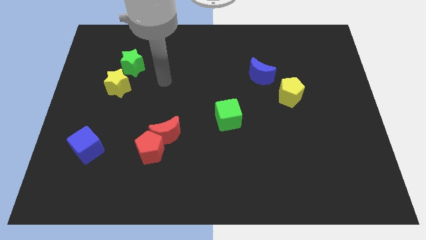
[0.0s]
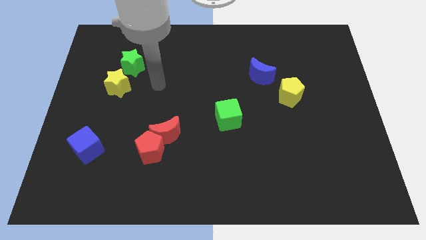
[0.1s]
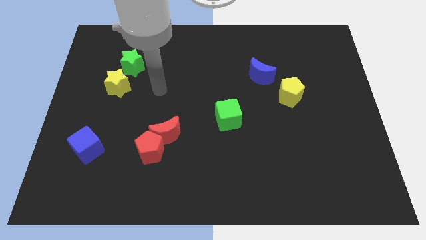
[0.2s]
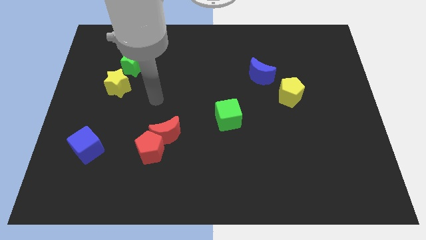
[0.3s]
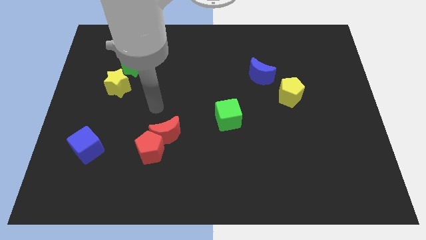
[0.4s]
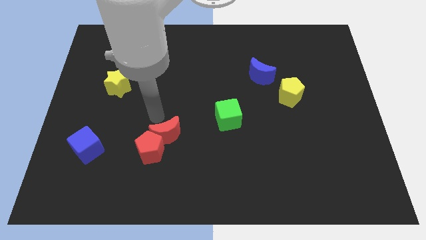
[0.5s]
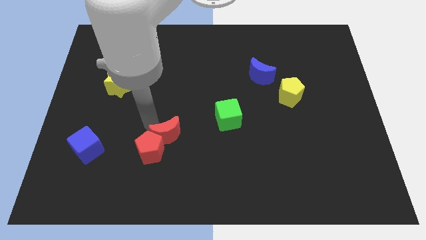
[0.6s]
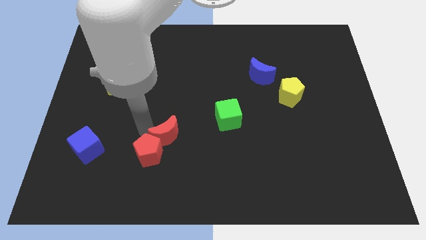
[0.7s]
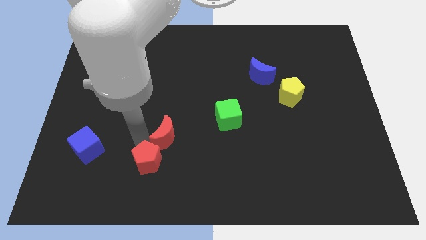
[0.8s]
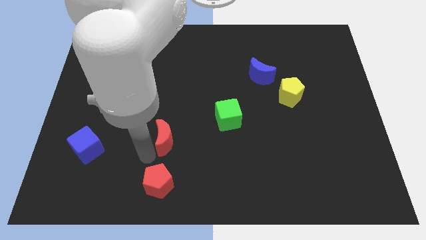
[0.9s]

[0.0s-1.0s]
move the red moon away from the red pentagon

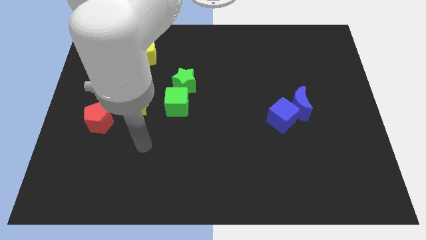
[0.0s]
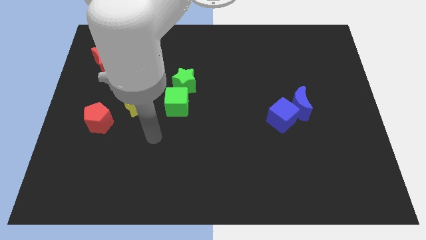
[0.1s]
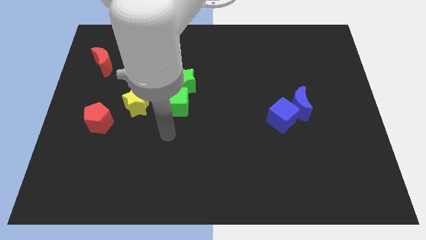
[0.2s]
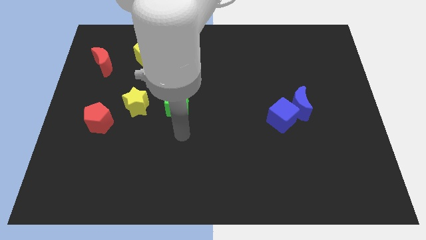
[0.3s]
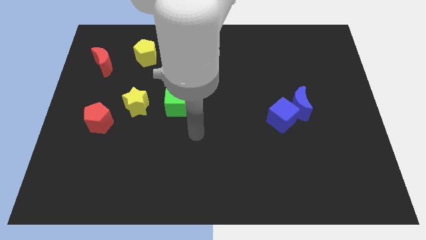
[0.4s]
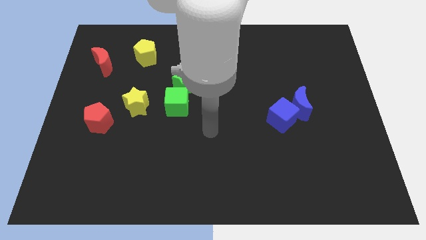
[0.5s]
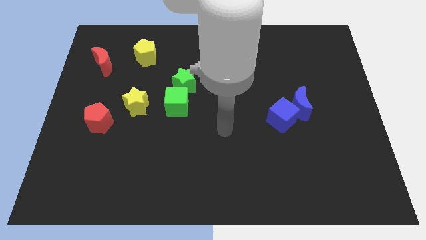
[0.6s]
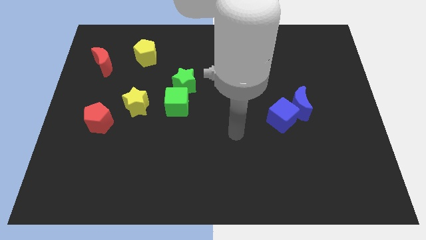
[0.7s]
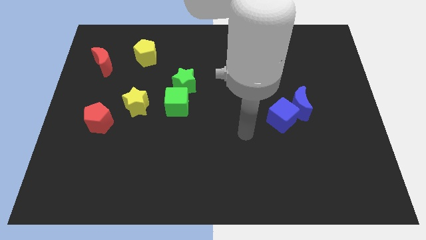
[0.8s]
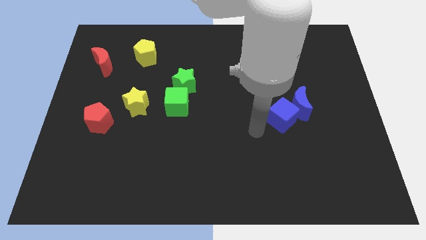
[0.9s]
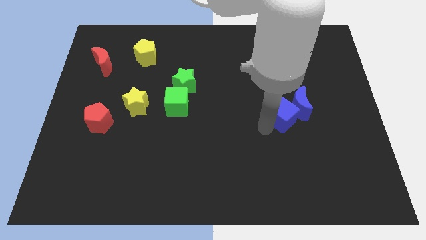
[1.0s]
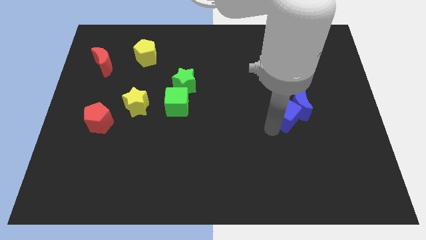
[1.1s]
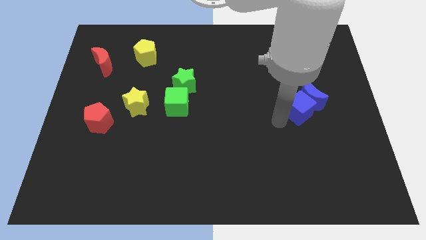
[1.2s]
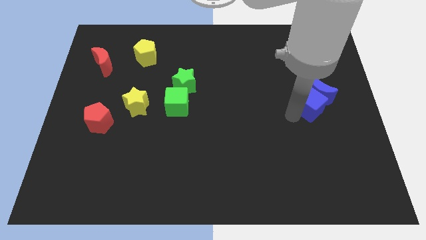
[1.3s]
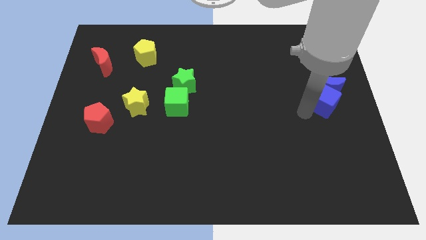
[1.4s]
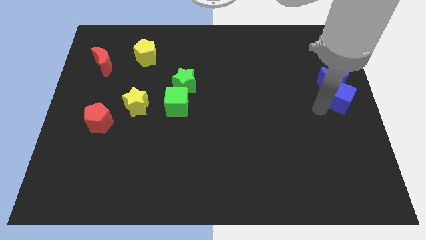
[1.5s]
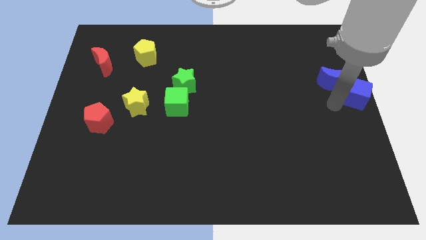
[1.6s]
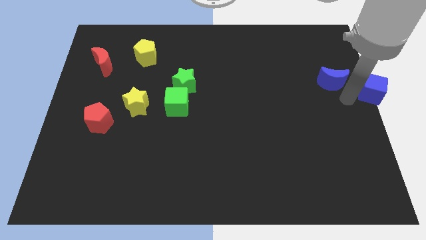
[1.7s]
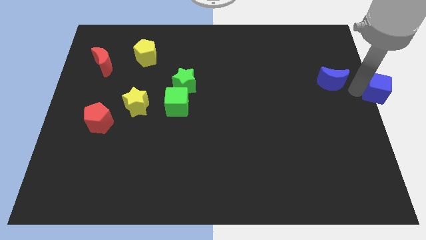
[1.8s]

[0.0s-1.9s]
pull the blue moon apart from the blue cube

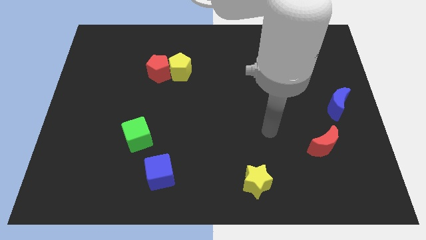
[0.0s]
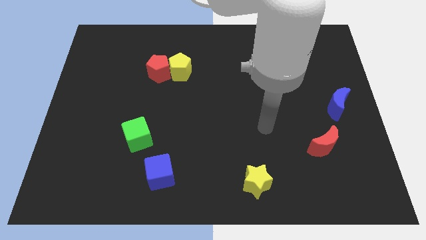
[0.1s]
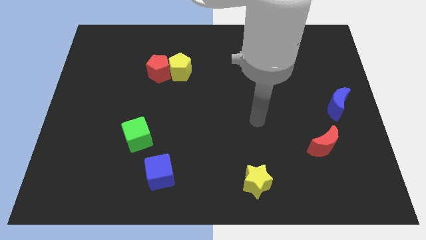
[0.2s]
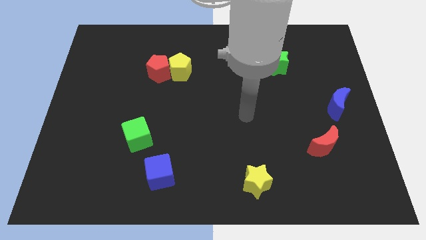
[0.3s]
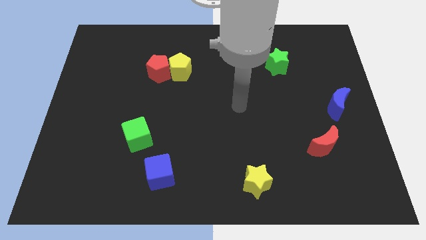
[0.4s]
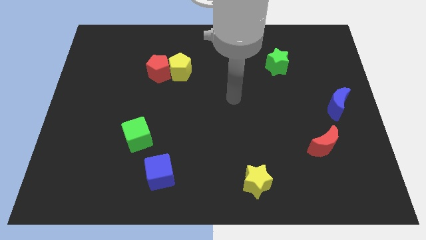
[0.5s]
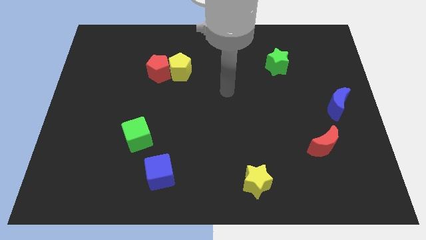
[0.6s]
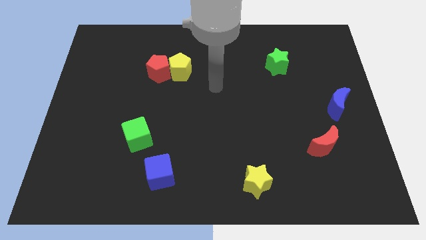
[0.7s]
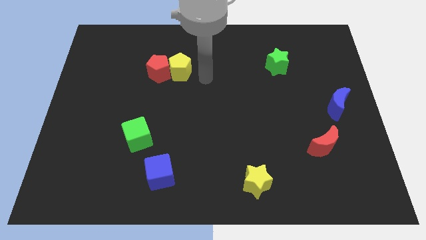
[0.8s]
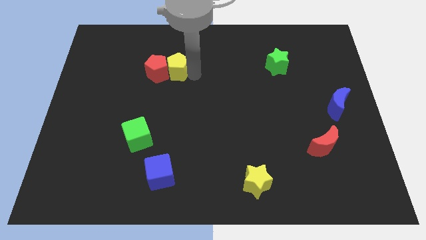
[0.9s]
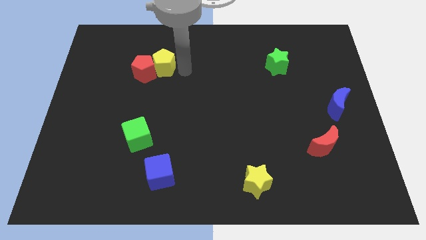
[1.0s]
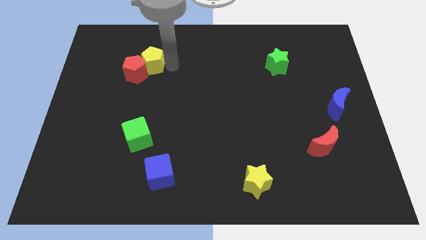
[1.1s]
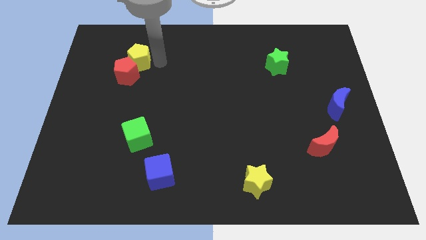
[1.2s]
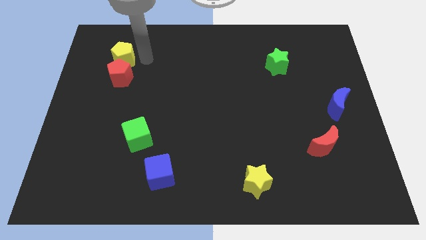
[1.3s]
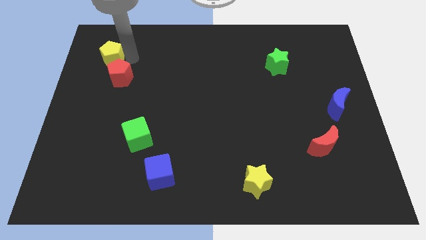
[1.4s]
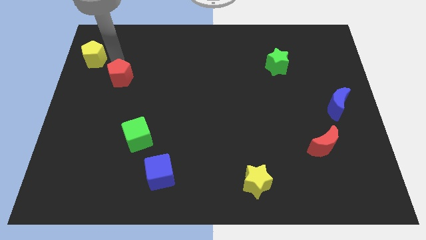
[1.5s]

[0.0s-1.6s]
pull the red pentagon apart from the yellow pentagon

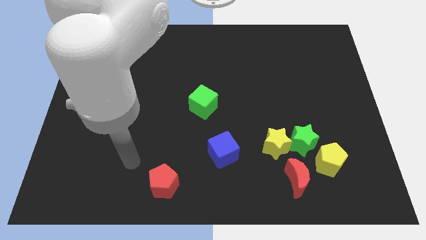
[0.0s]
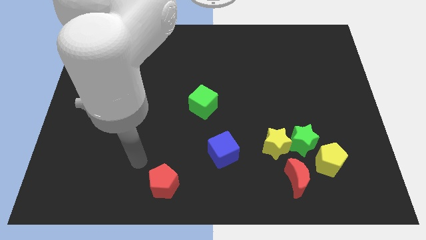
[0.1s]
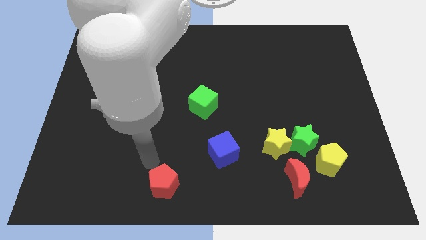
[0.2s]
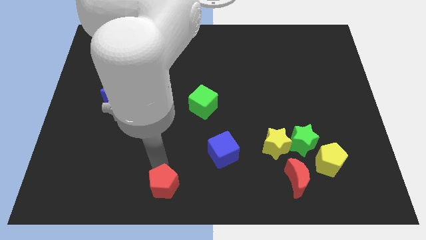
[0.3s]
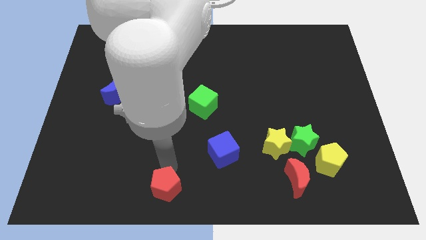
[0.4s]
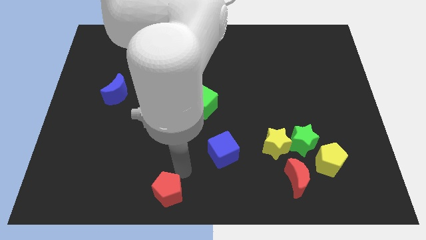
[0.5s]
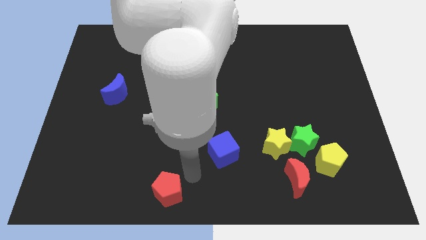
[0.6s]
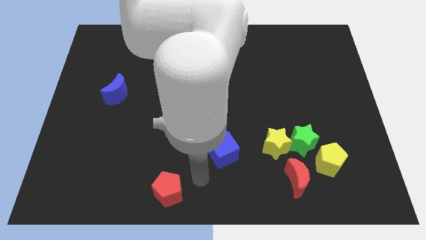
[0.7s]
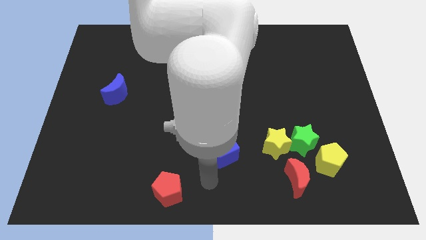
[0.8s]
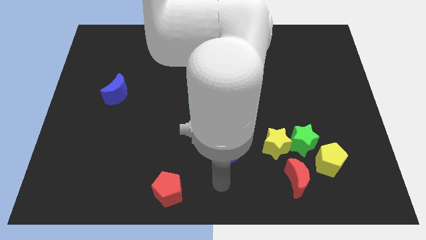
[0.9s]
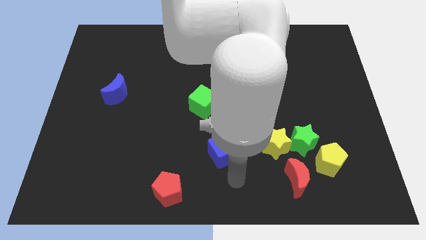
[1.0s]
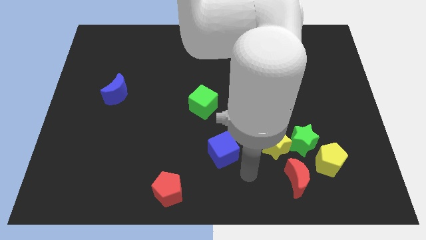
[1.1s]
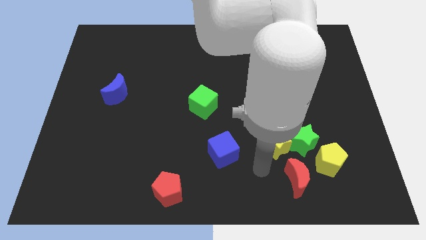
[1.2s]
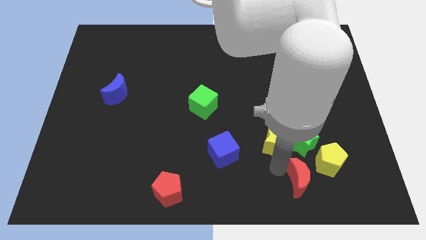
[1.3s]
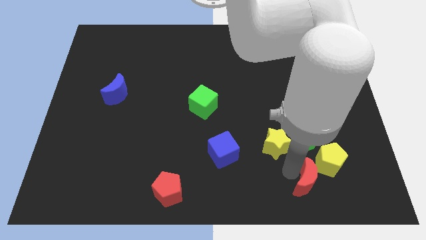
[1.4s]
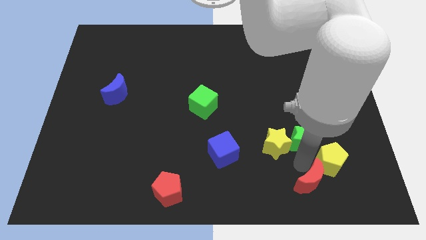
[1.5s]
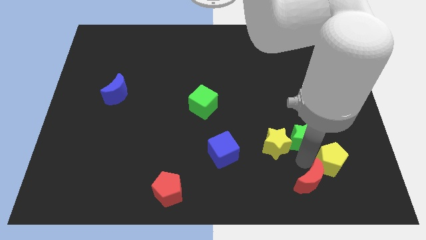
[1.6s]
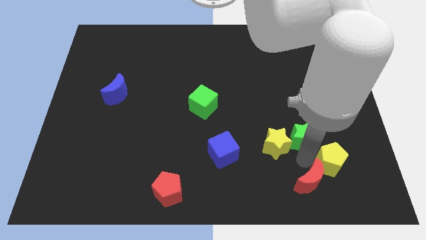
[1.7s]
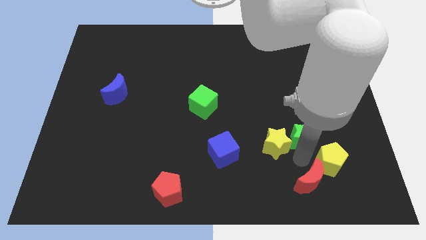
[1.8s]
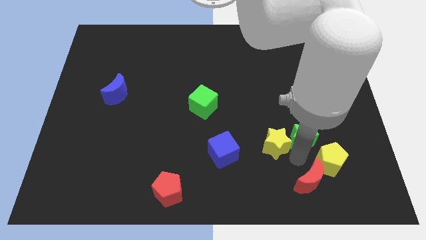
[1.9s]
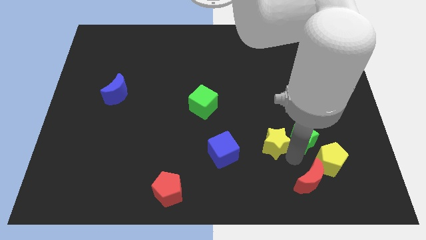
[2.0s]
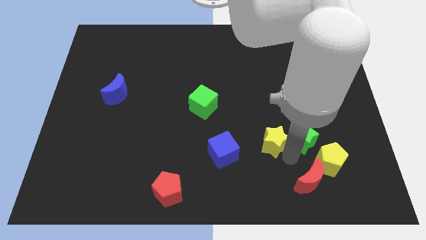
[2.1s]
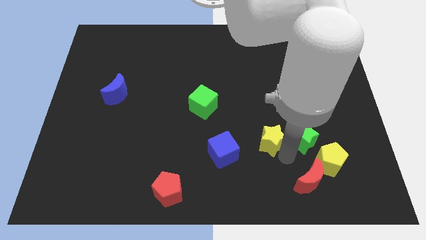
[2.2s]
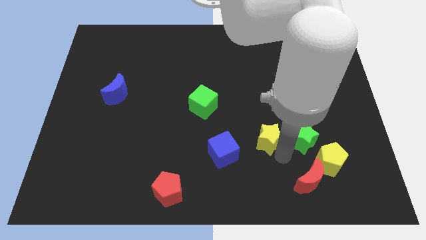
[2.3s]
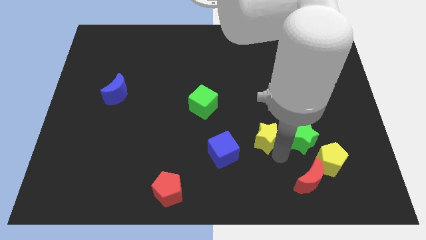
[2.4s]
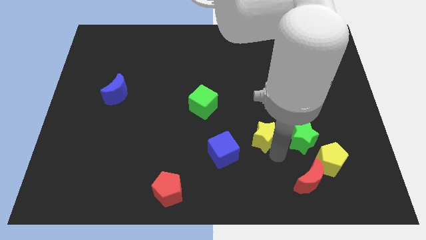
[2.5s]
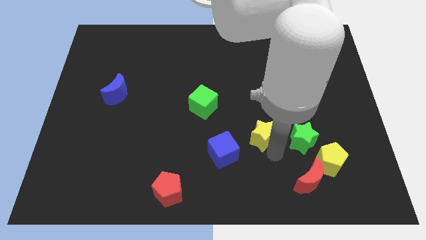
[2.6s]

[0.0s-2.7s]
pull the yellow star apart from the green star and red moon

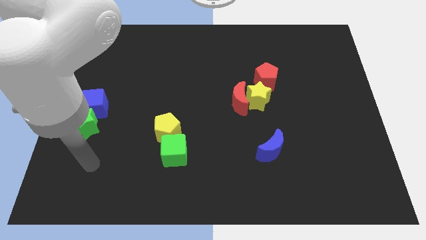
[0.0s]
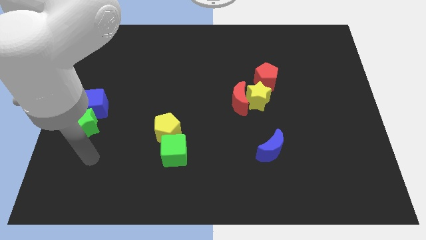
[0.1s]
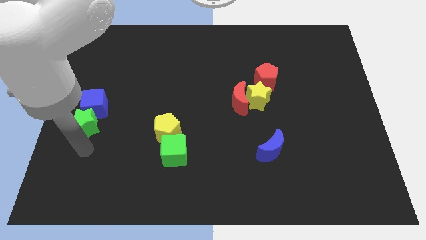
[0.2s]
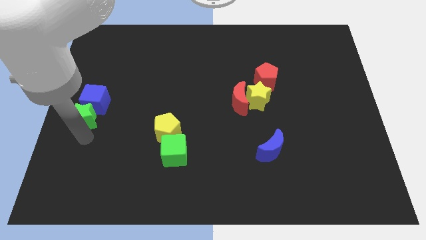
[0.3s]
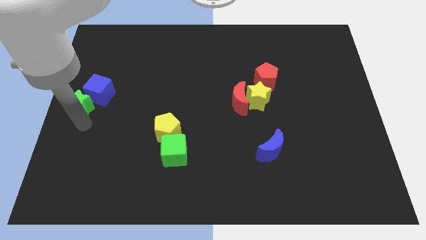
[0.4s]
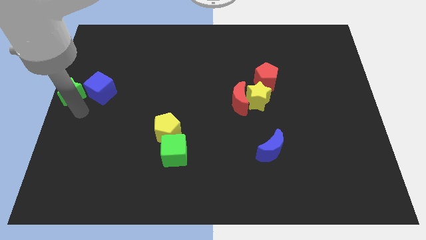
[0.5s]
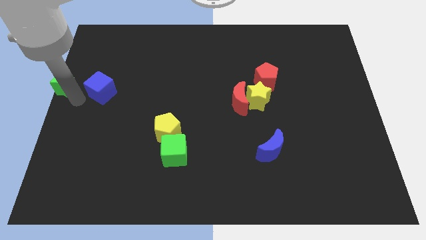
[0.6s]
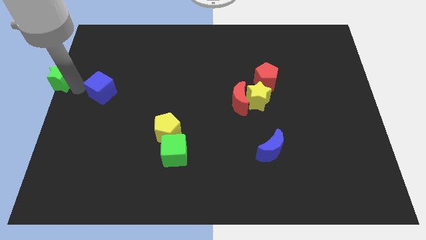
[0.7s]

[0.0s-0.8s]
pull the blue cube apart from the green star

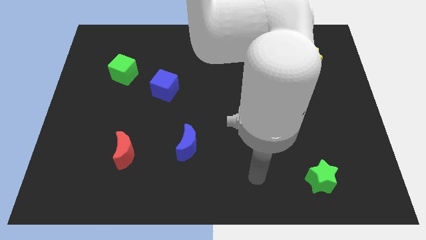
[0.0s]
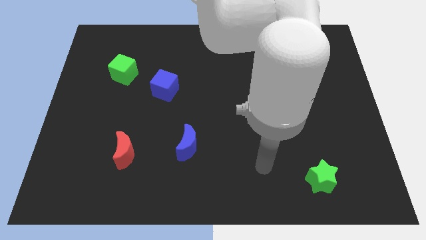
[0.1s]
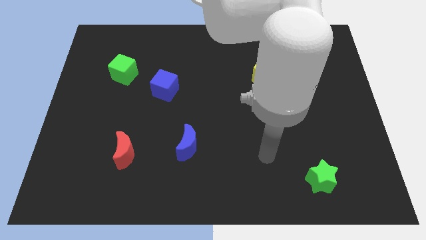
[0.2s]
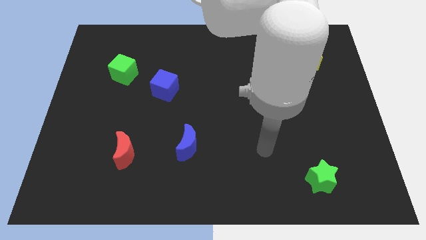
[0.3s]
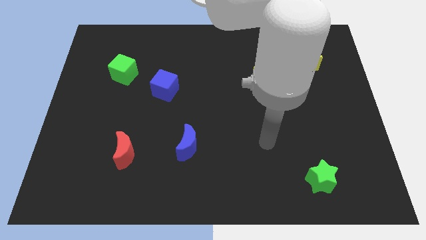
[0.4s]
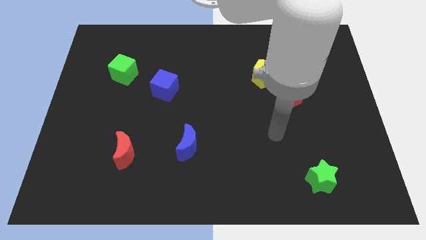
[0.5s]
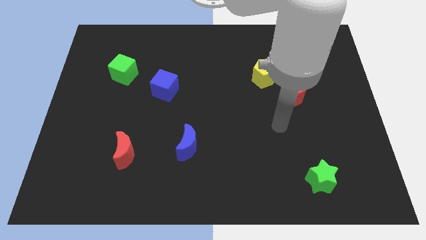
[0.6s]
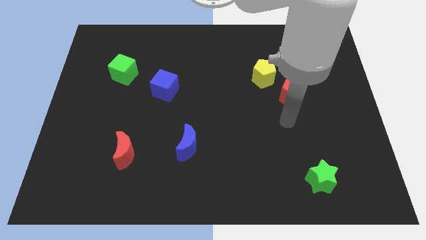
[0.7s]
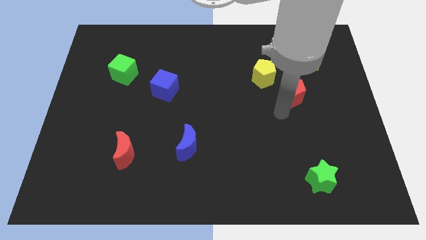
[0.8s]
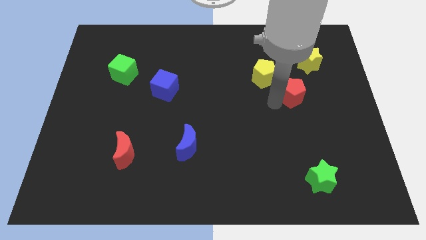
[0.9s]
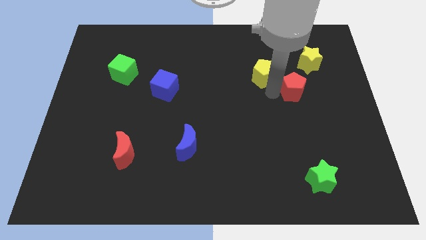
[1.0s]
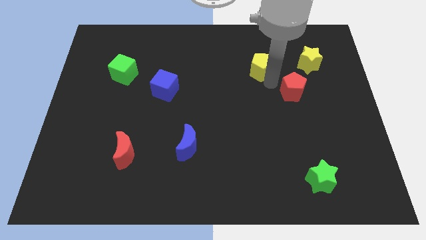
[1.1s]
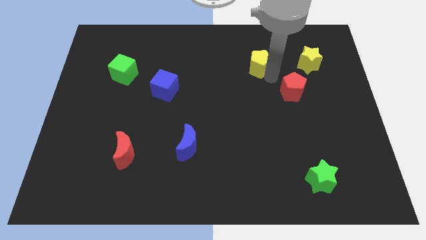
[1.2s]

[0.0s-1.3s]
move the red pentagon away from the yellow pentagon
